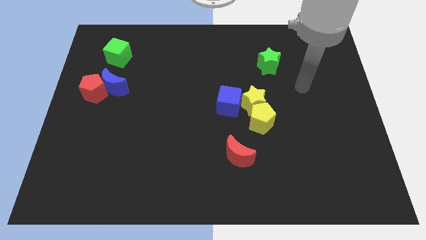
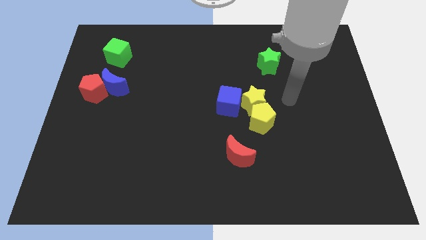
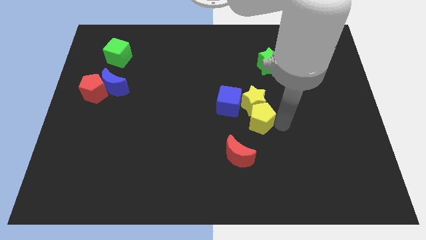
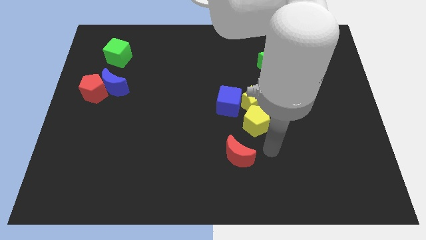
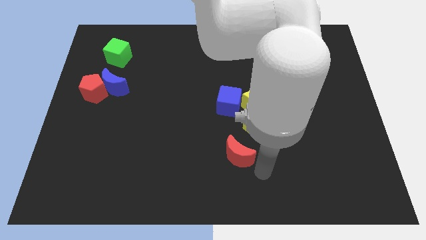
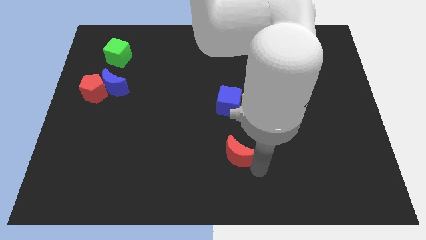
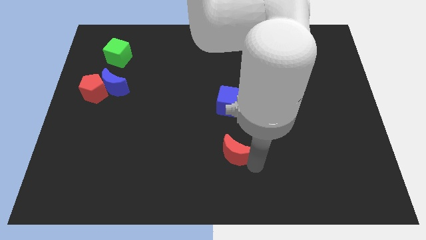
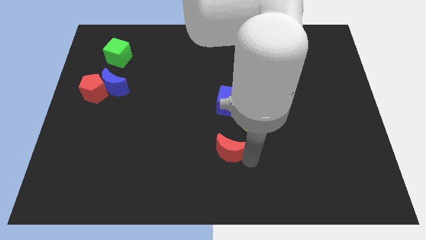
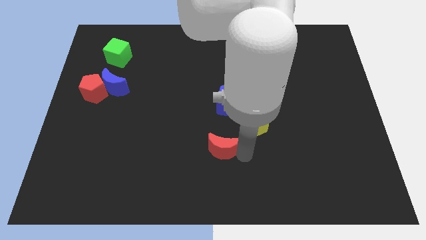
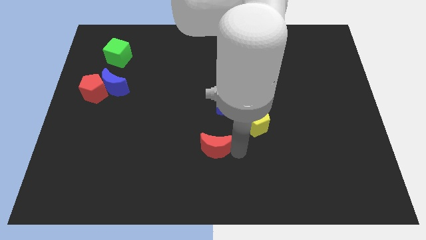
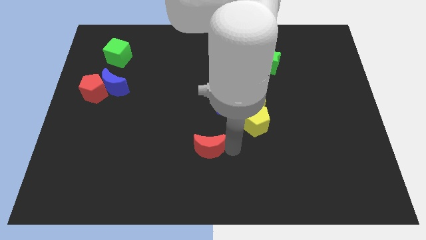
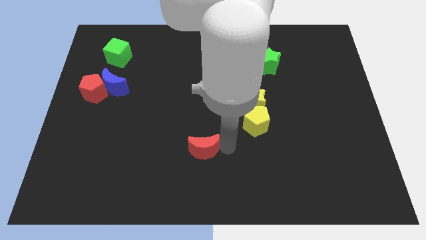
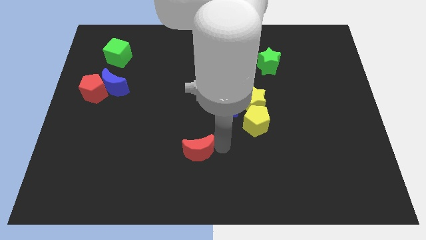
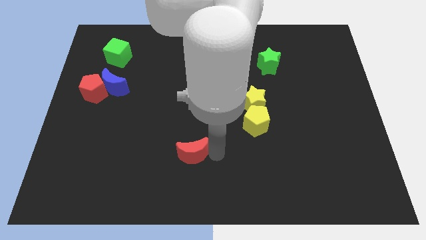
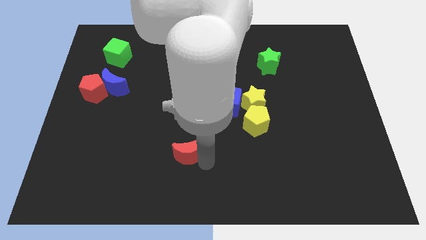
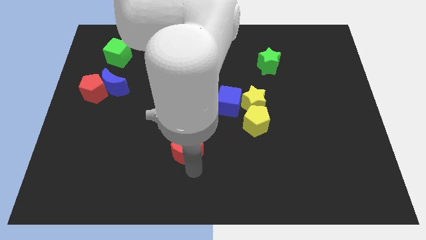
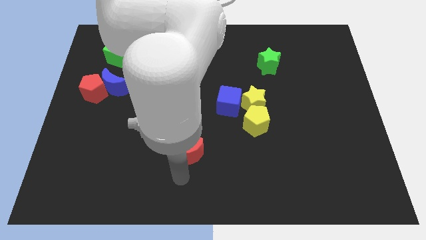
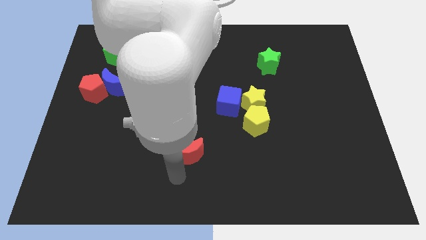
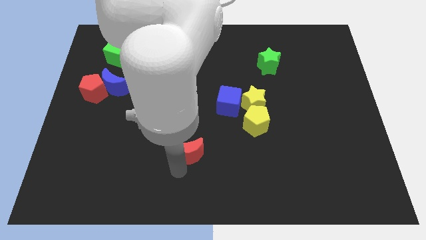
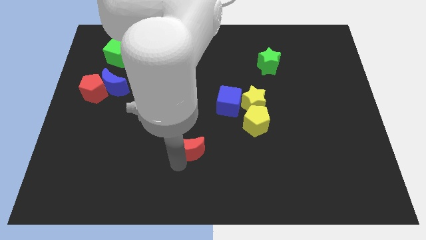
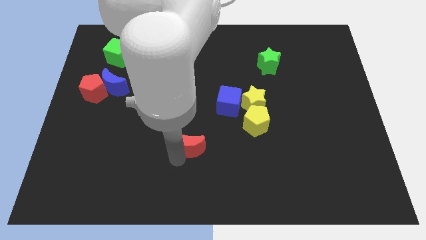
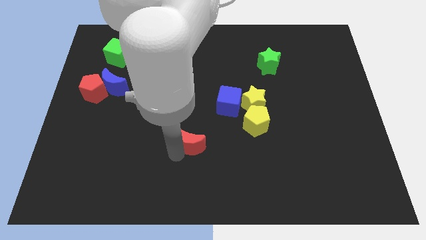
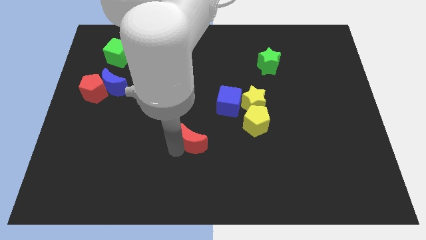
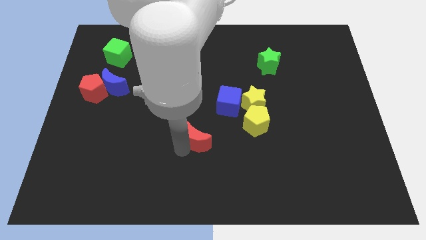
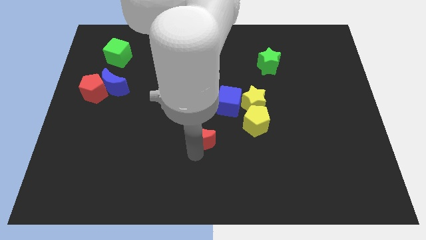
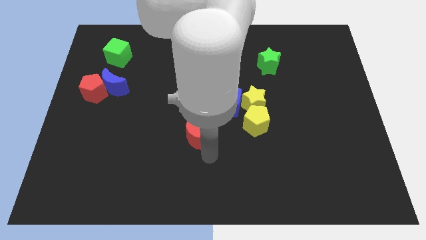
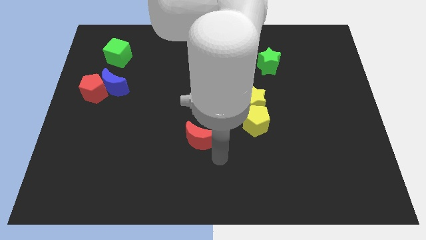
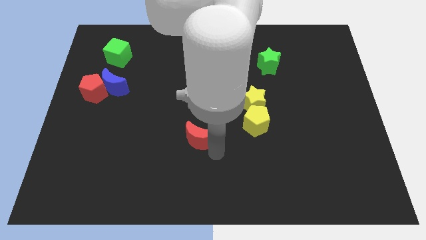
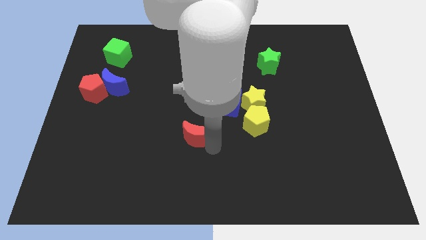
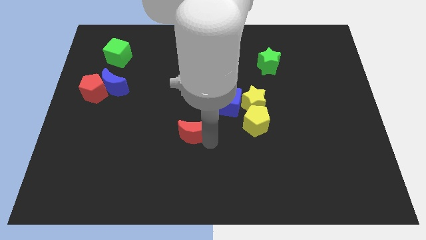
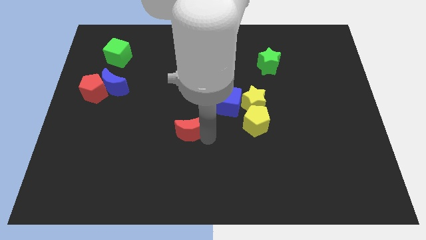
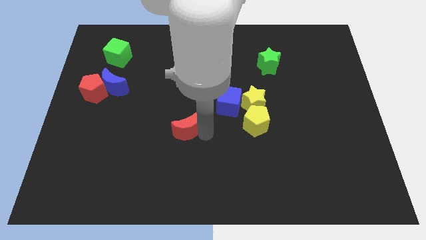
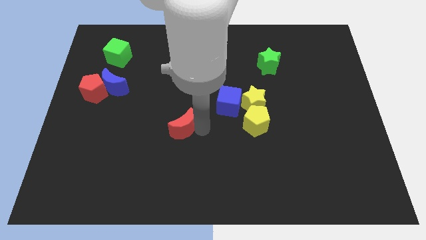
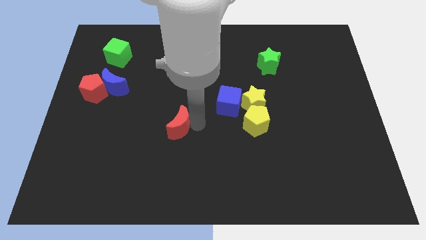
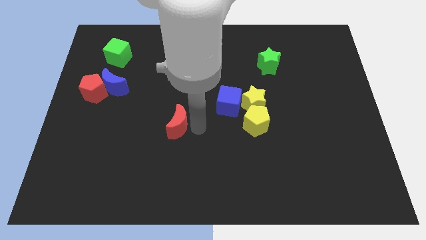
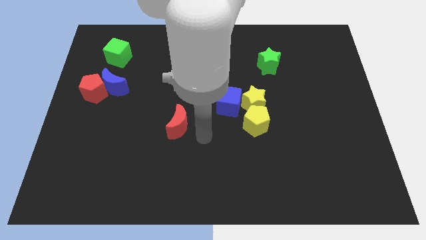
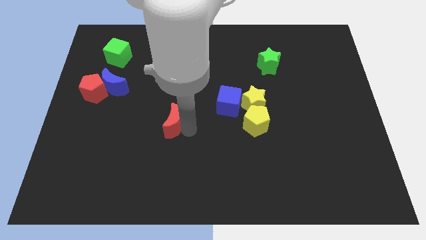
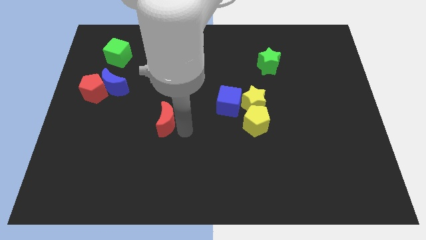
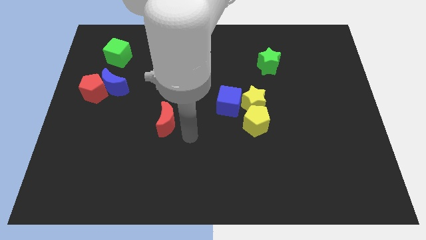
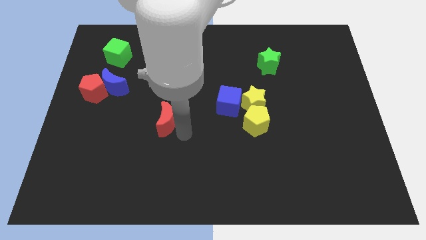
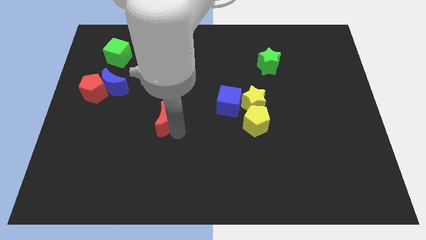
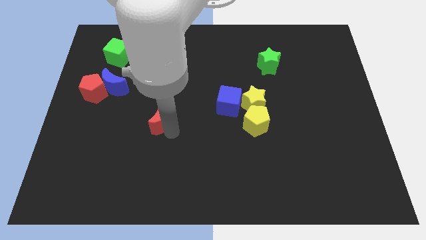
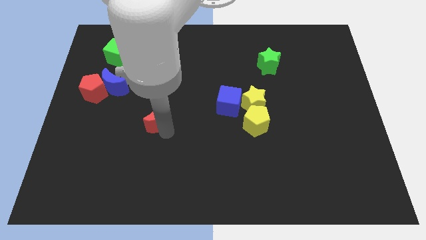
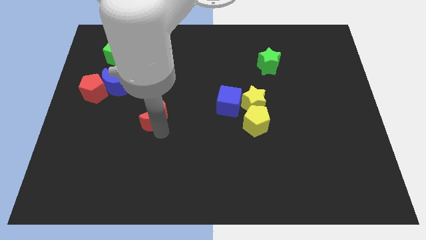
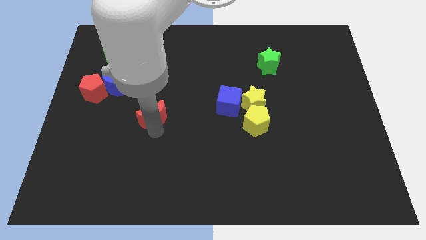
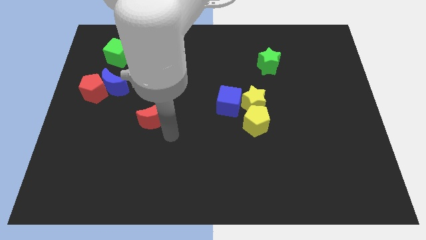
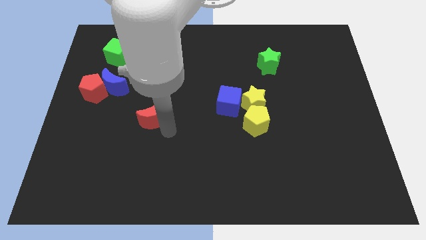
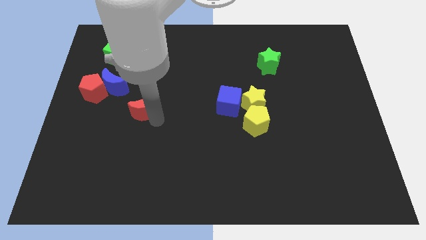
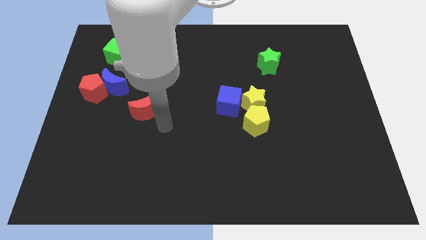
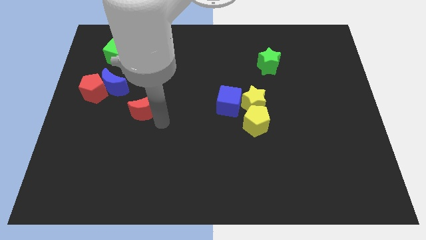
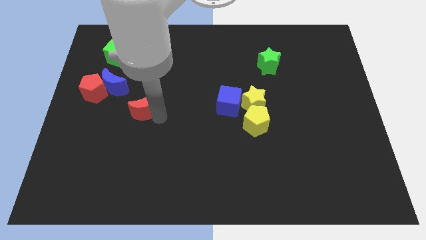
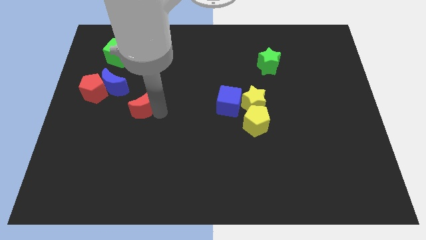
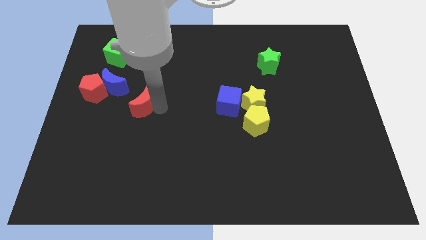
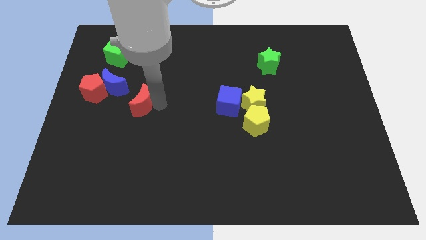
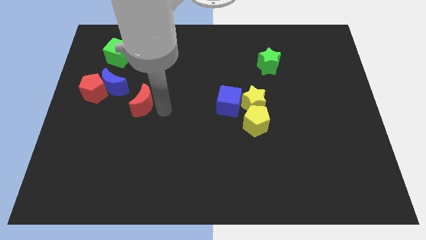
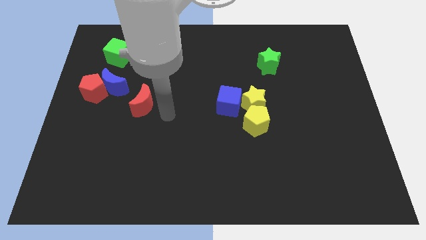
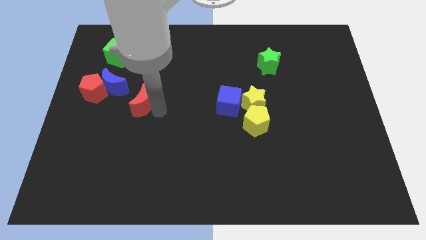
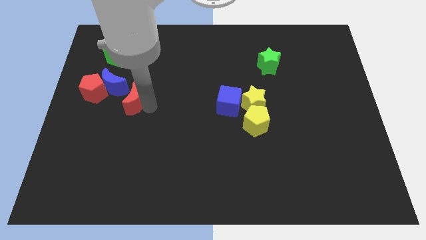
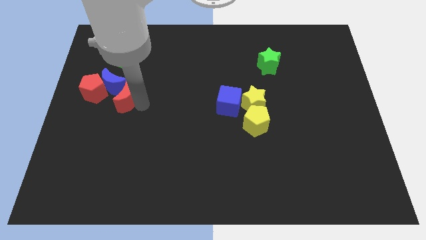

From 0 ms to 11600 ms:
move the red moon close to the blue moon

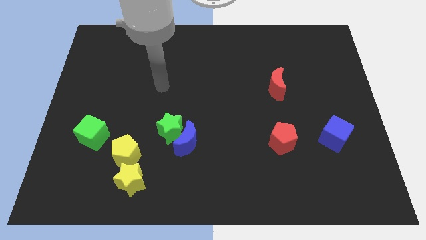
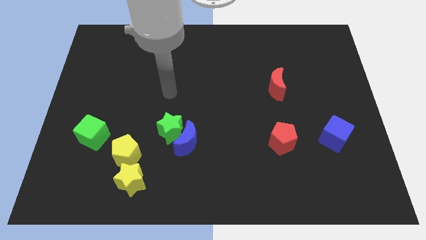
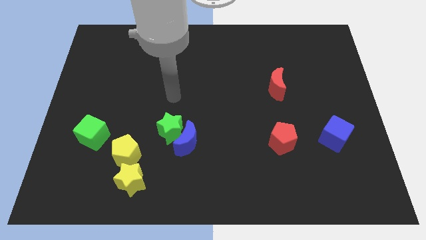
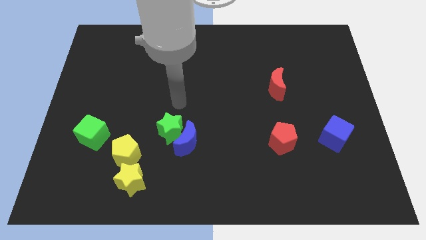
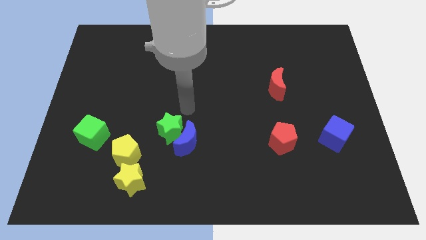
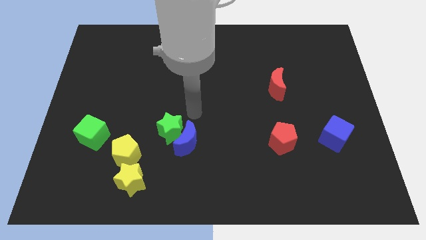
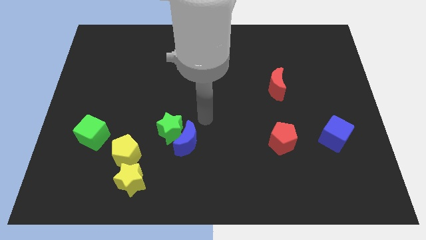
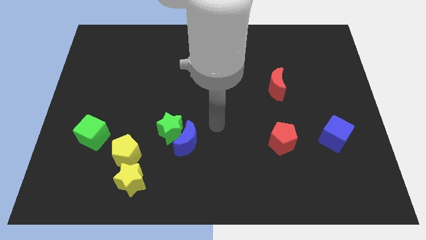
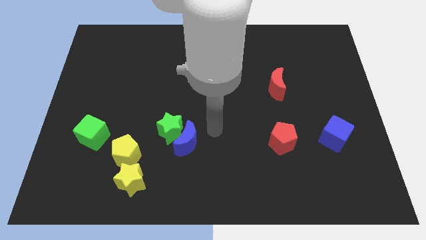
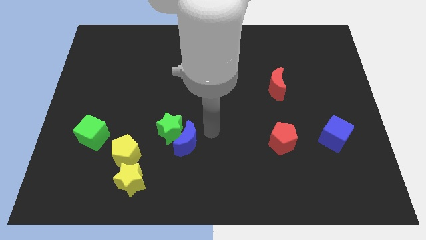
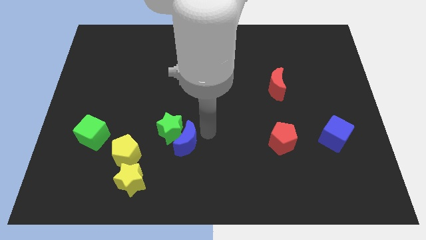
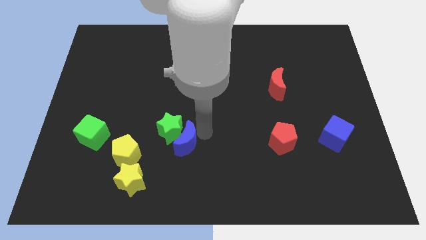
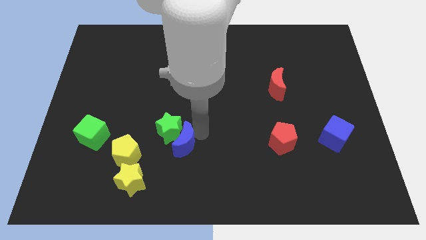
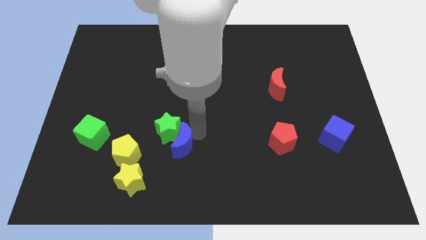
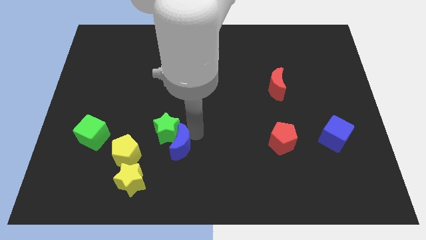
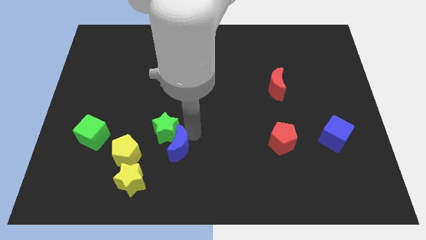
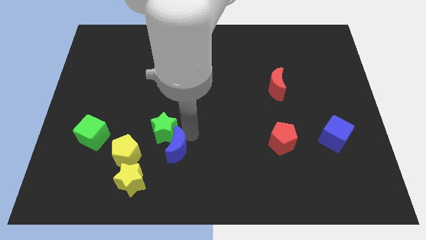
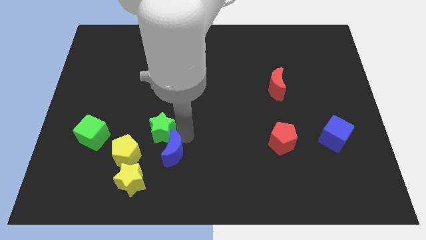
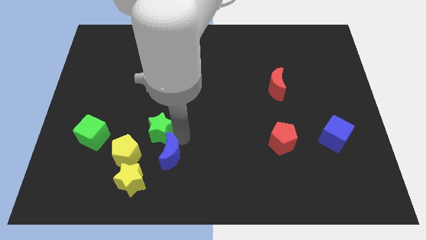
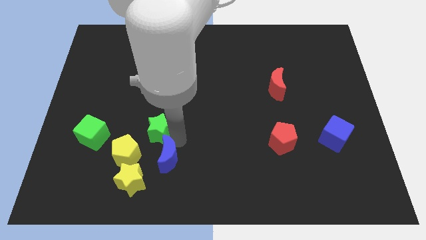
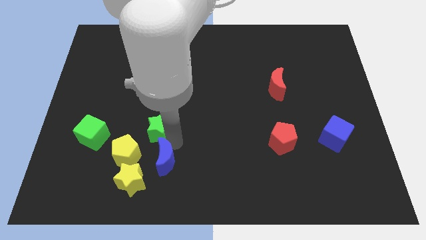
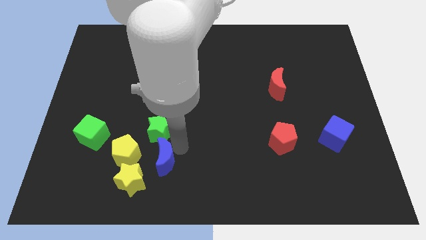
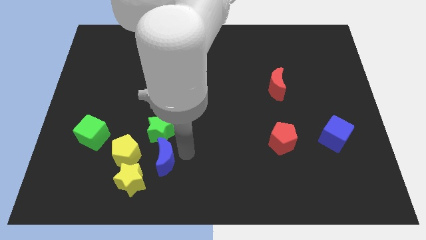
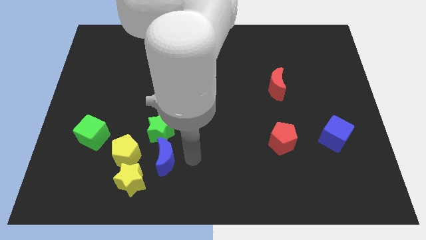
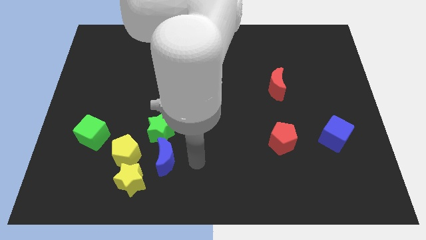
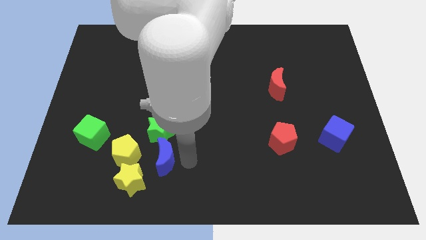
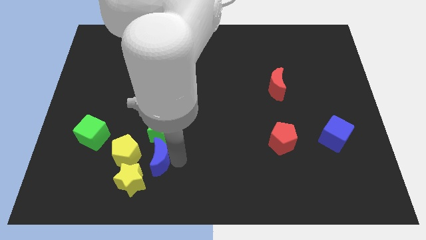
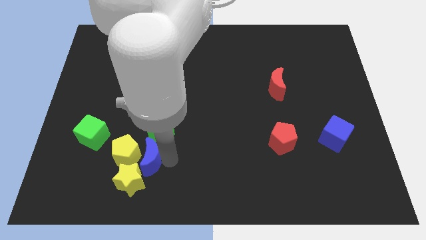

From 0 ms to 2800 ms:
put the blue moon next to the yellow pentagon

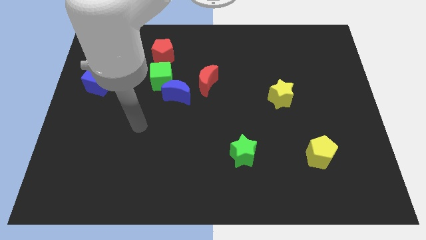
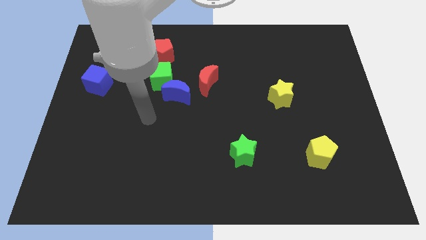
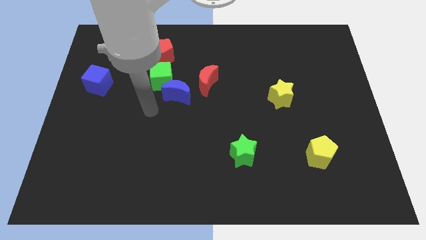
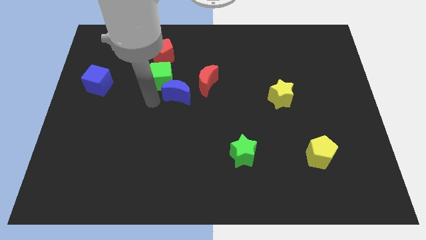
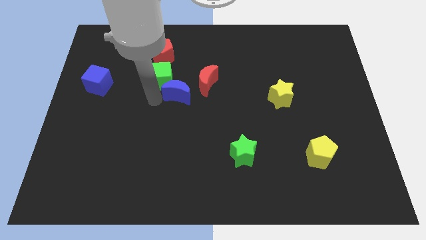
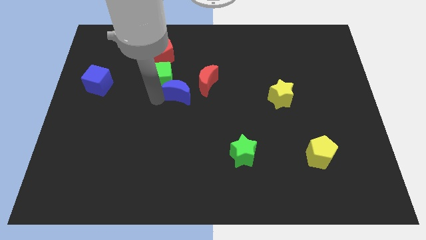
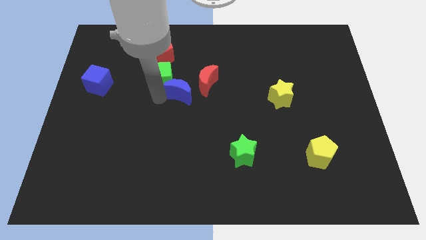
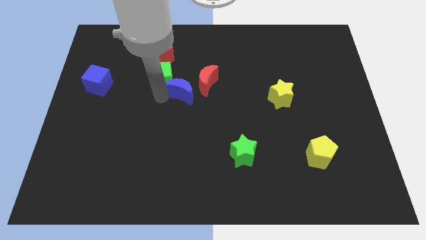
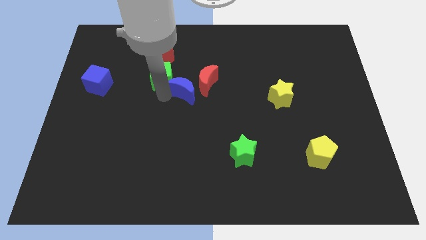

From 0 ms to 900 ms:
push the blue moon next to the red moon
